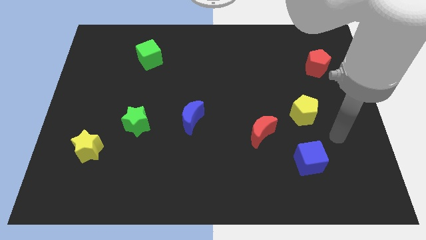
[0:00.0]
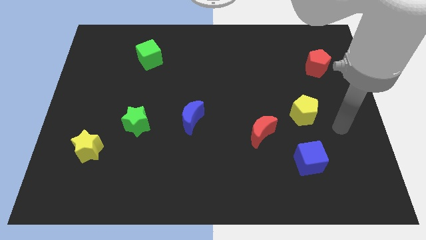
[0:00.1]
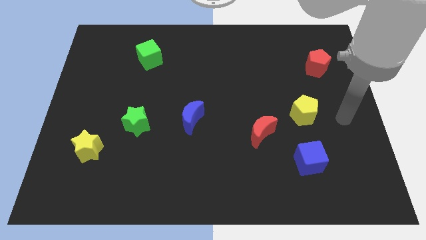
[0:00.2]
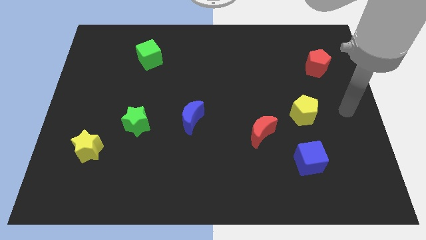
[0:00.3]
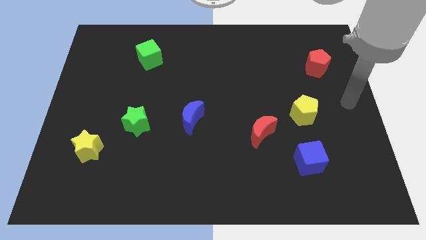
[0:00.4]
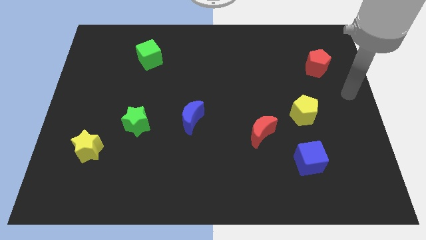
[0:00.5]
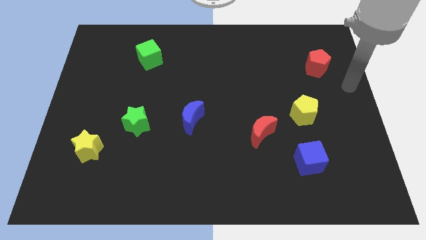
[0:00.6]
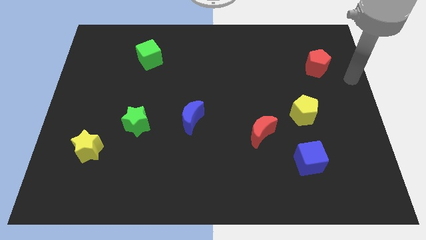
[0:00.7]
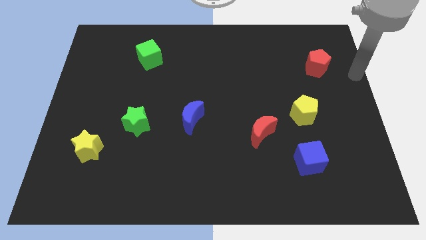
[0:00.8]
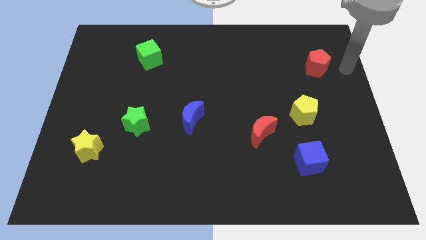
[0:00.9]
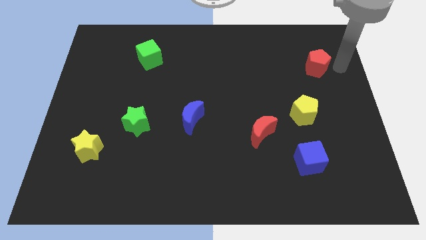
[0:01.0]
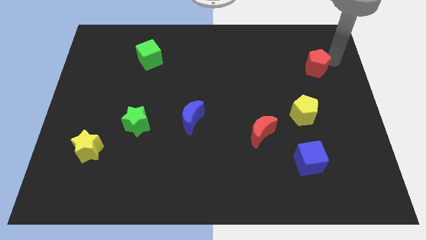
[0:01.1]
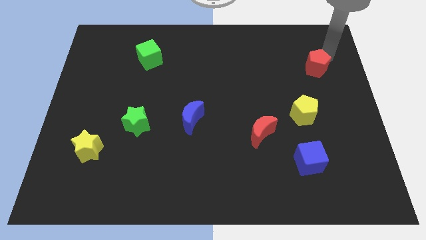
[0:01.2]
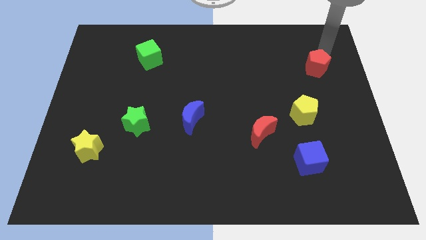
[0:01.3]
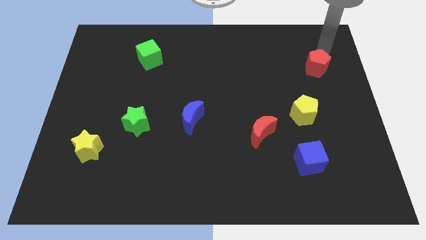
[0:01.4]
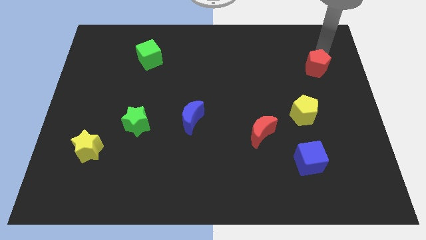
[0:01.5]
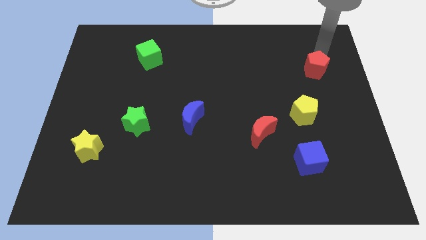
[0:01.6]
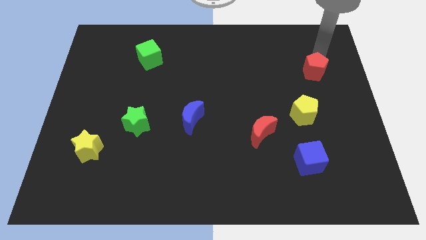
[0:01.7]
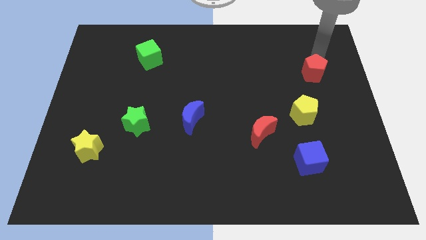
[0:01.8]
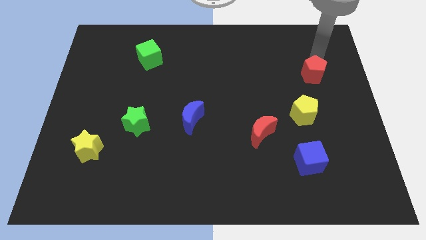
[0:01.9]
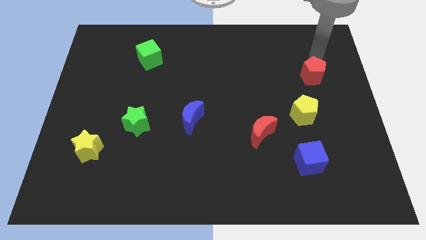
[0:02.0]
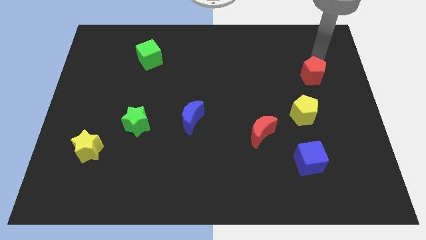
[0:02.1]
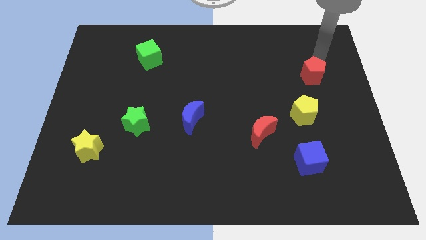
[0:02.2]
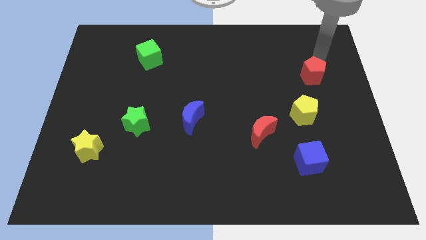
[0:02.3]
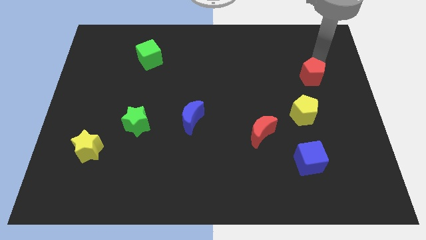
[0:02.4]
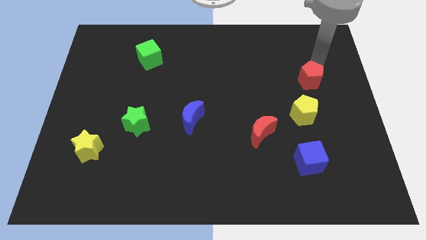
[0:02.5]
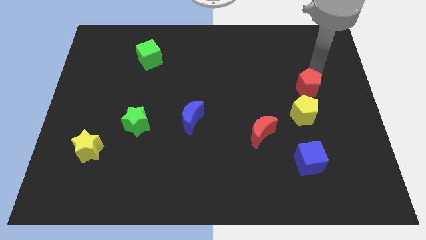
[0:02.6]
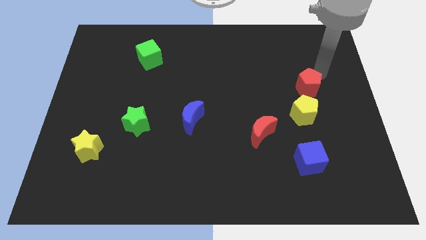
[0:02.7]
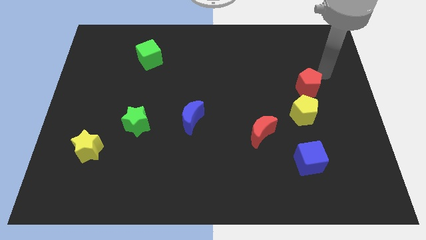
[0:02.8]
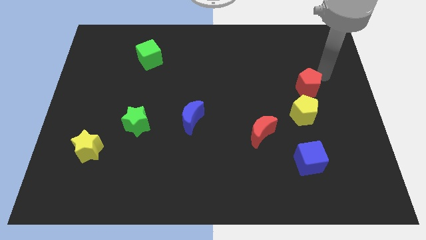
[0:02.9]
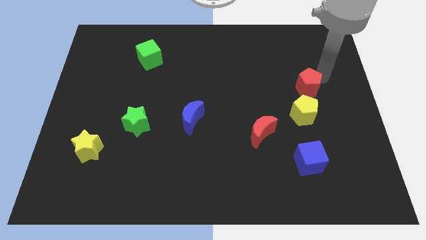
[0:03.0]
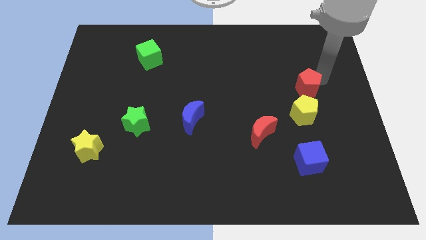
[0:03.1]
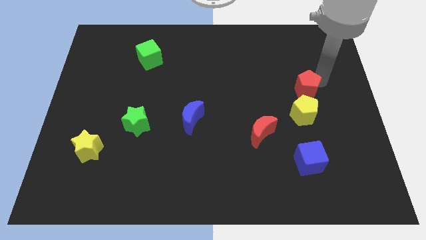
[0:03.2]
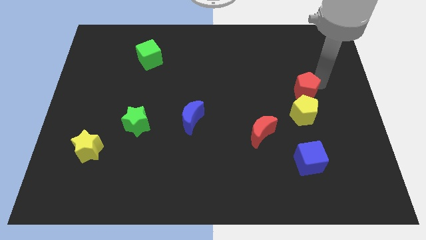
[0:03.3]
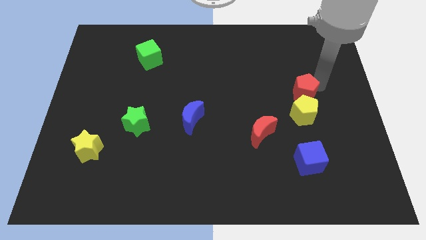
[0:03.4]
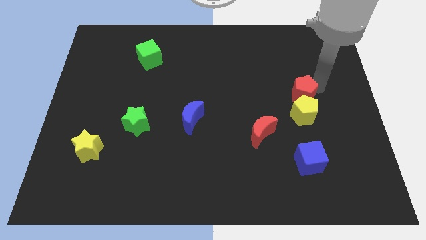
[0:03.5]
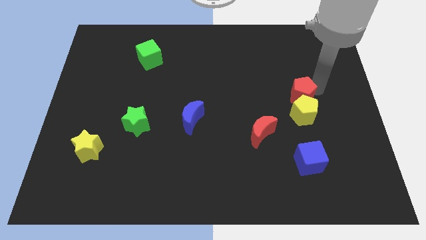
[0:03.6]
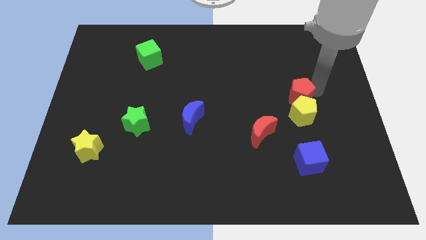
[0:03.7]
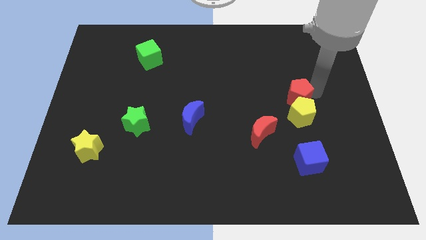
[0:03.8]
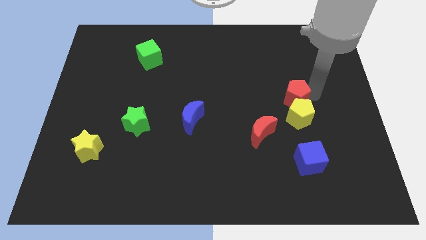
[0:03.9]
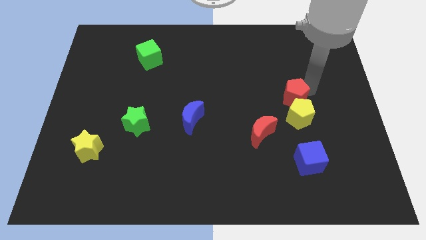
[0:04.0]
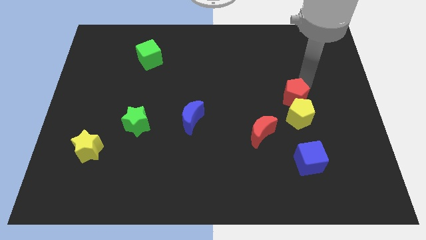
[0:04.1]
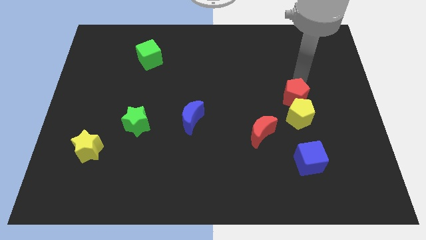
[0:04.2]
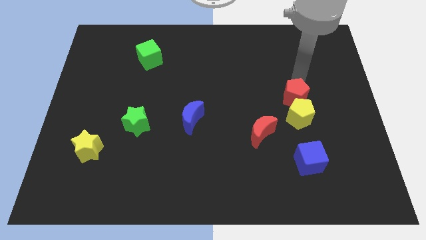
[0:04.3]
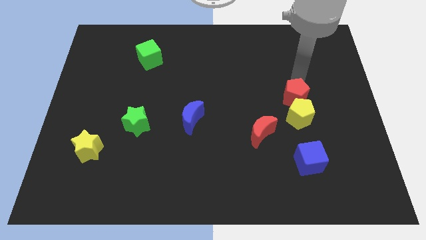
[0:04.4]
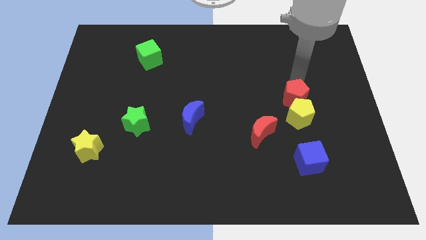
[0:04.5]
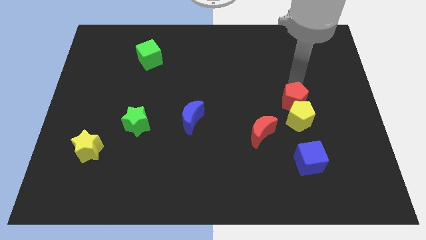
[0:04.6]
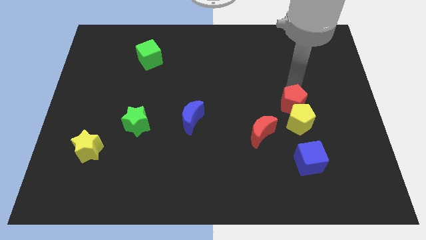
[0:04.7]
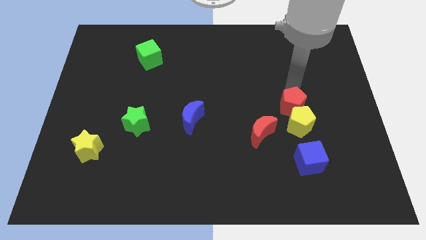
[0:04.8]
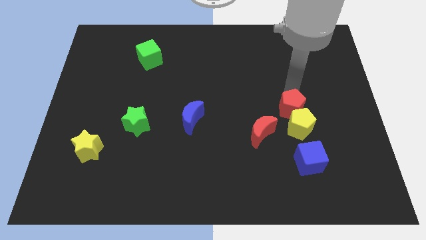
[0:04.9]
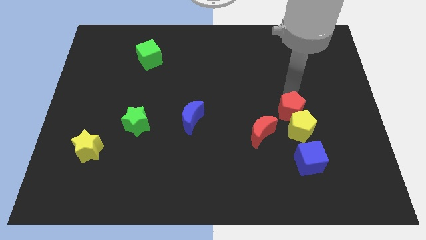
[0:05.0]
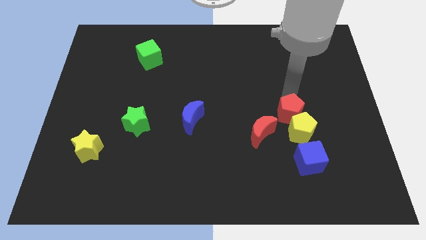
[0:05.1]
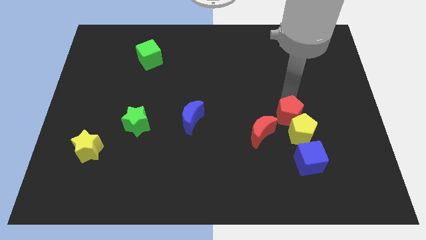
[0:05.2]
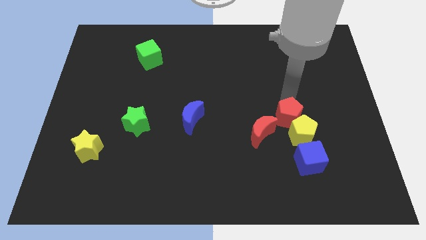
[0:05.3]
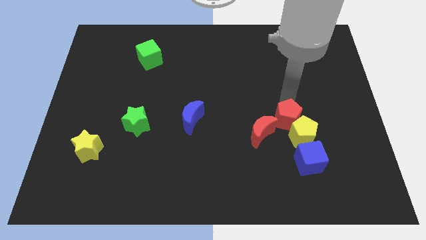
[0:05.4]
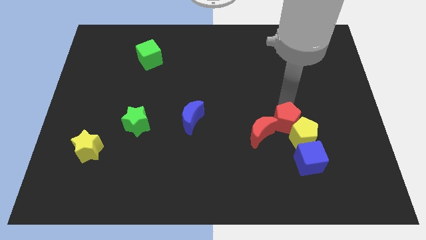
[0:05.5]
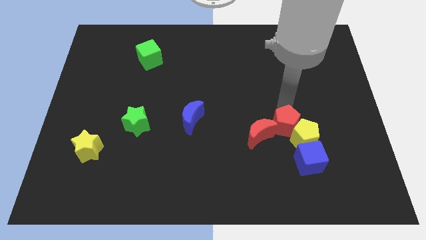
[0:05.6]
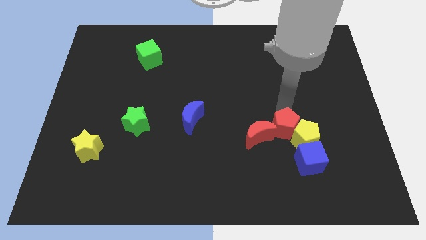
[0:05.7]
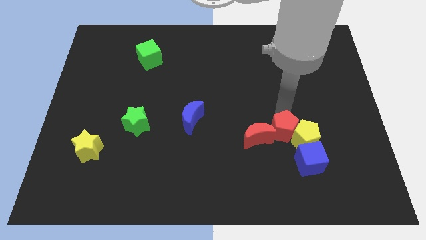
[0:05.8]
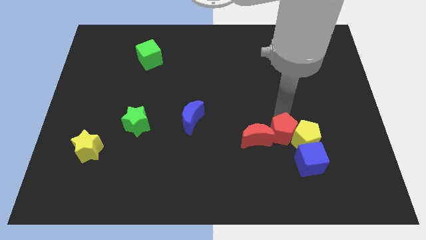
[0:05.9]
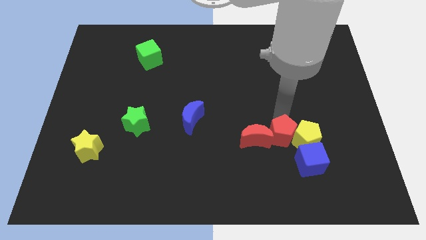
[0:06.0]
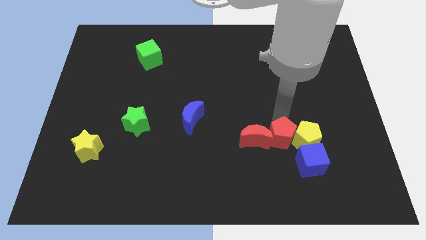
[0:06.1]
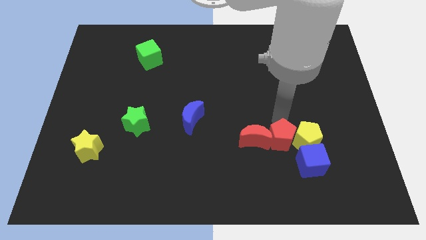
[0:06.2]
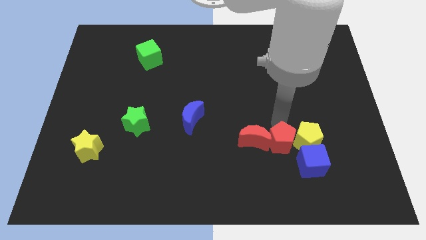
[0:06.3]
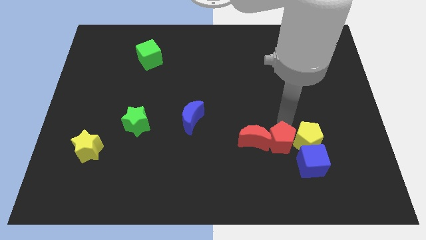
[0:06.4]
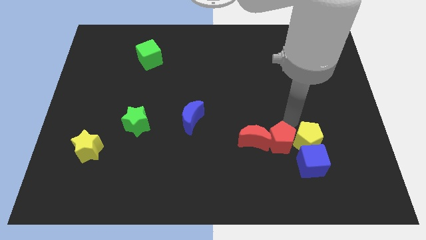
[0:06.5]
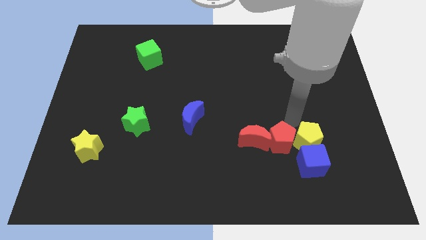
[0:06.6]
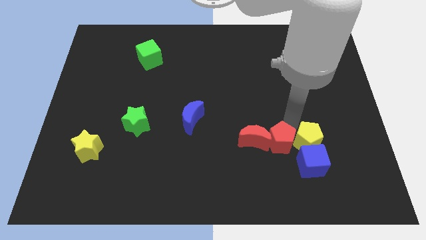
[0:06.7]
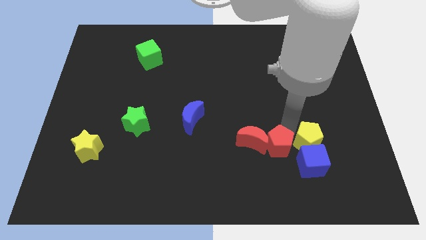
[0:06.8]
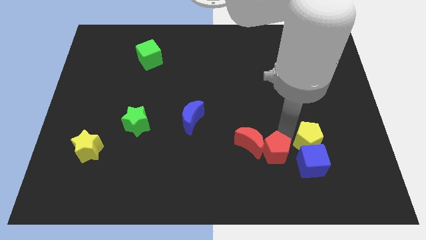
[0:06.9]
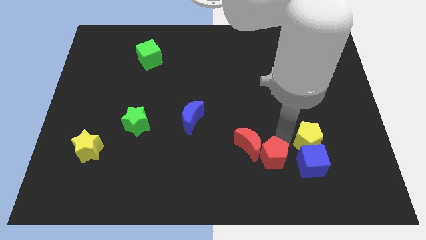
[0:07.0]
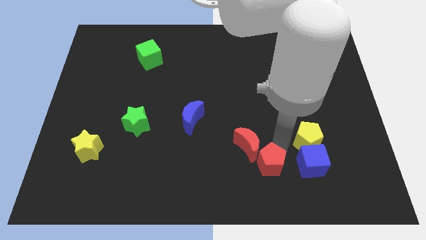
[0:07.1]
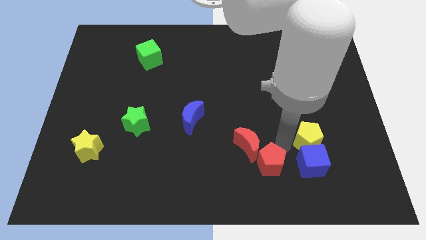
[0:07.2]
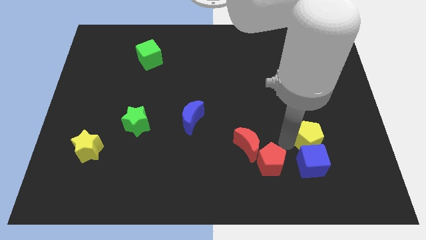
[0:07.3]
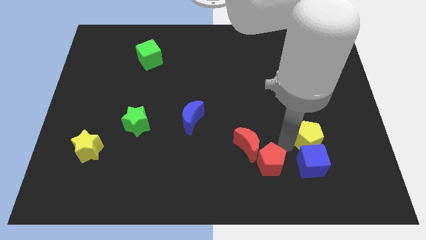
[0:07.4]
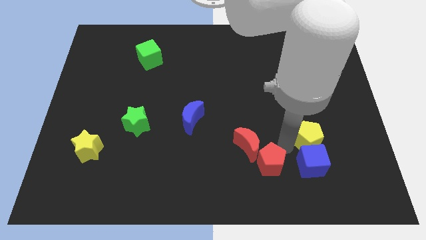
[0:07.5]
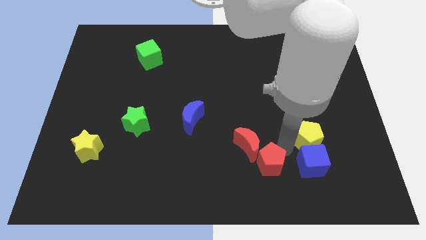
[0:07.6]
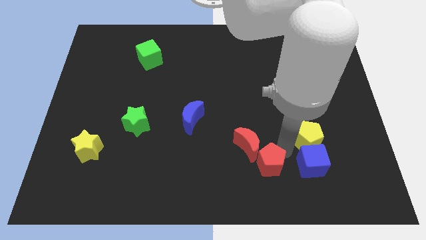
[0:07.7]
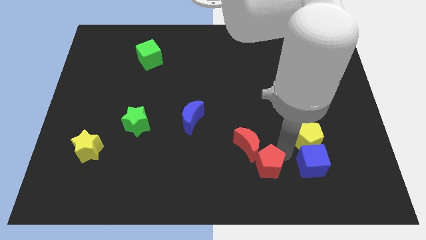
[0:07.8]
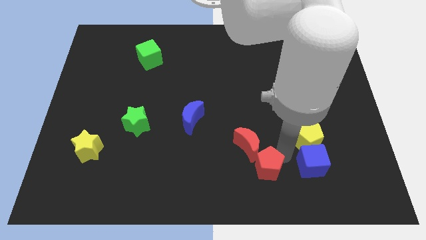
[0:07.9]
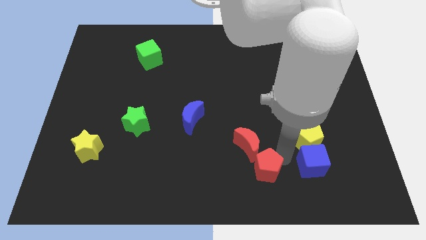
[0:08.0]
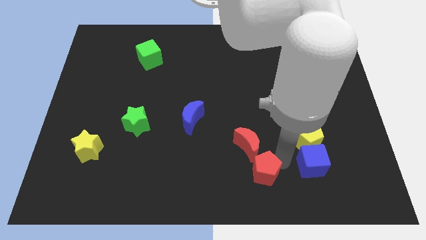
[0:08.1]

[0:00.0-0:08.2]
put the red pentagon to the bottom side
